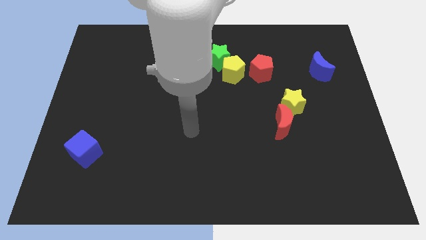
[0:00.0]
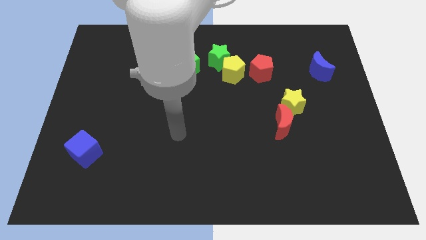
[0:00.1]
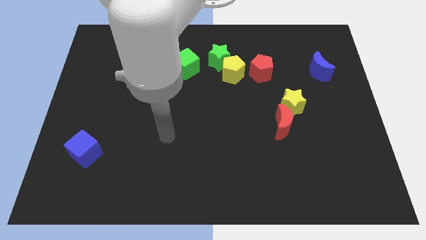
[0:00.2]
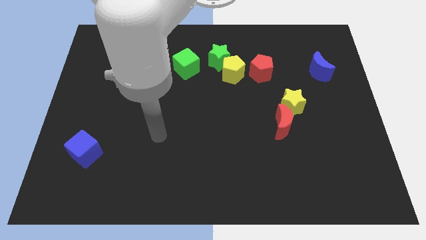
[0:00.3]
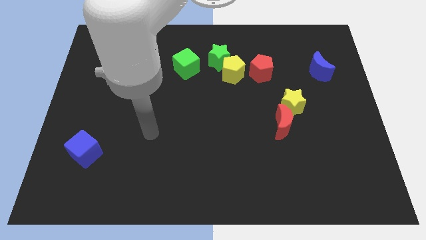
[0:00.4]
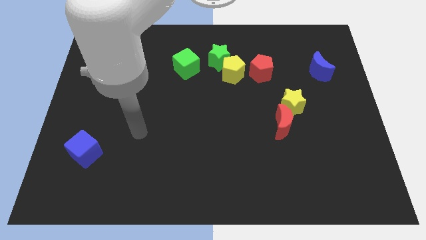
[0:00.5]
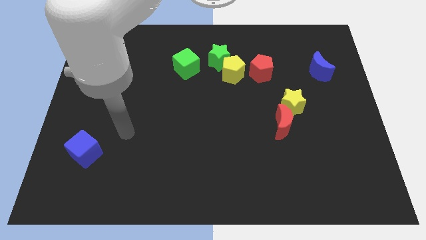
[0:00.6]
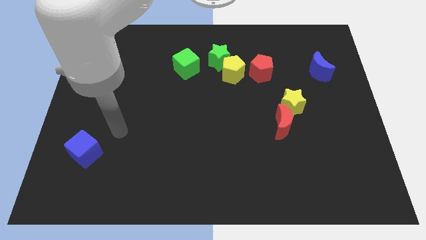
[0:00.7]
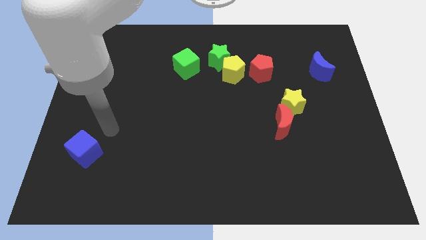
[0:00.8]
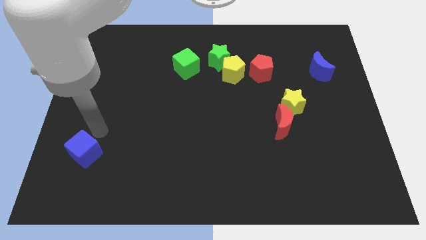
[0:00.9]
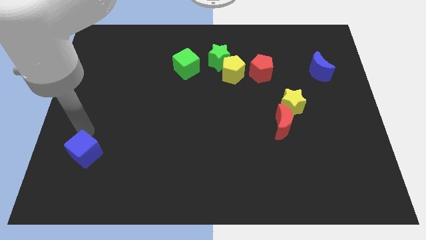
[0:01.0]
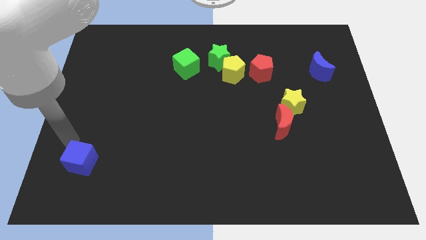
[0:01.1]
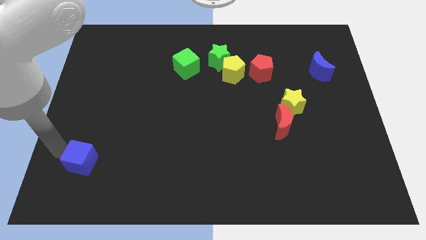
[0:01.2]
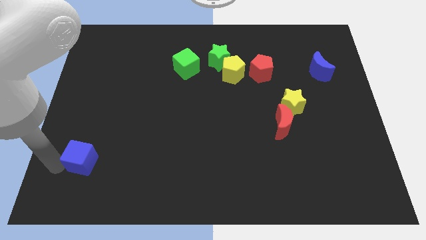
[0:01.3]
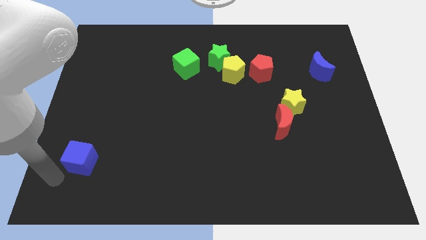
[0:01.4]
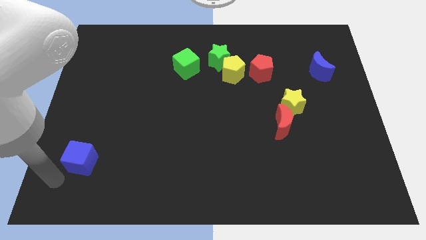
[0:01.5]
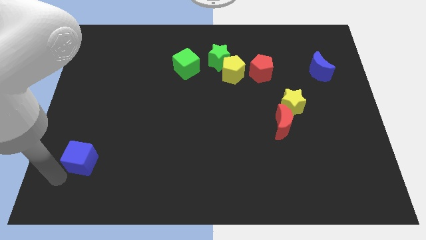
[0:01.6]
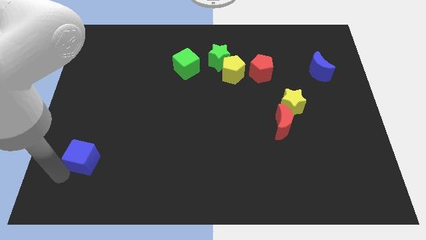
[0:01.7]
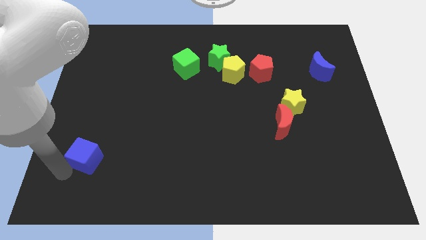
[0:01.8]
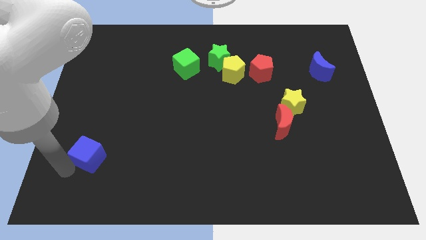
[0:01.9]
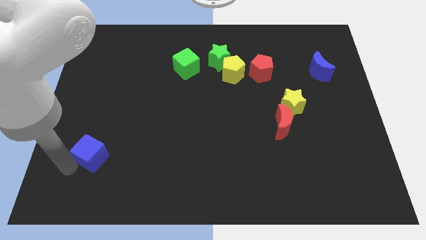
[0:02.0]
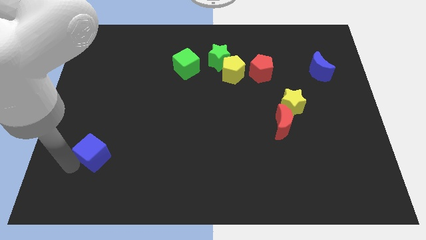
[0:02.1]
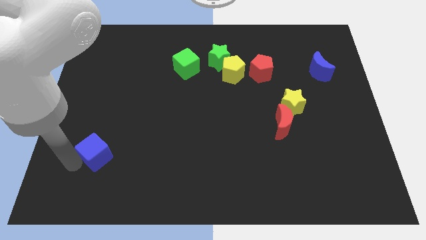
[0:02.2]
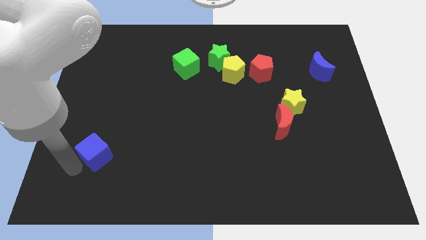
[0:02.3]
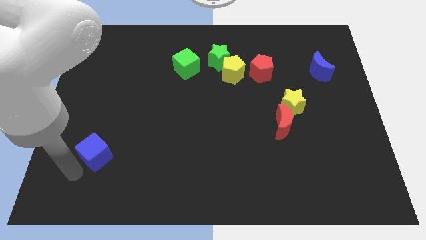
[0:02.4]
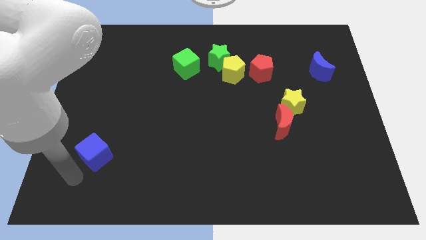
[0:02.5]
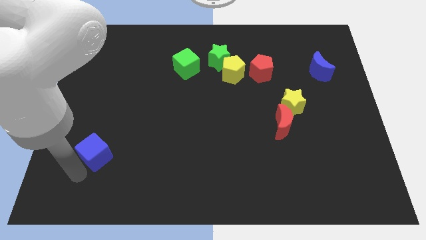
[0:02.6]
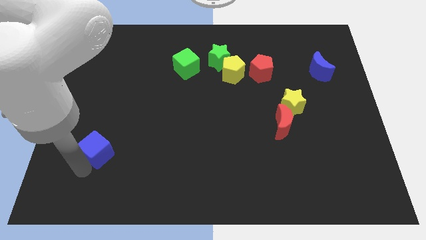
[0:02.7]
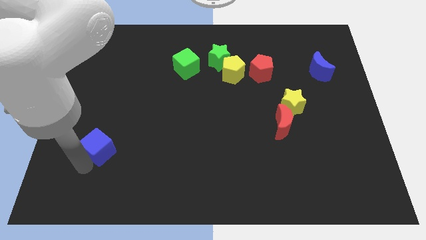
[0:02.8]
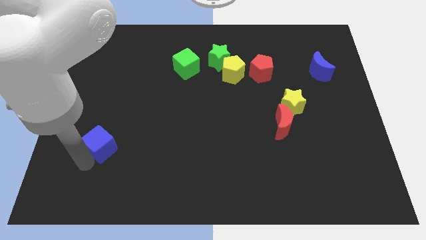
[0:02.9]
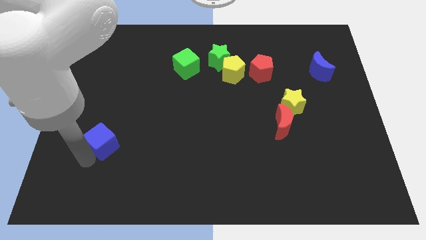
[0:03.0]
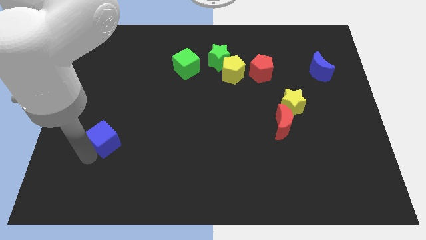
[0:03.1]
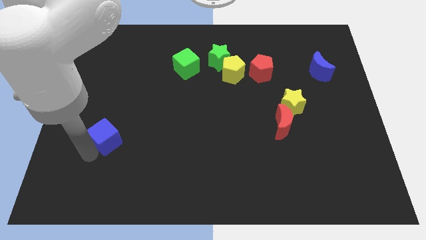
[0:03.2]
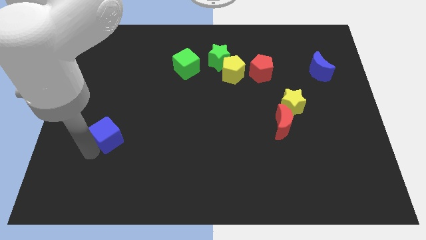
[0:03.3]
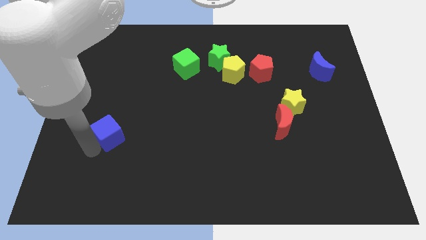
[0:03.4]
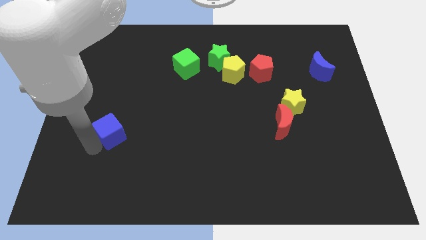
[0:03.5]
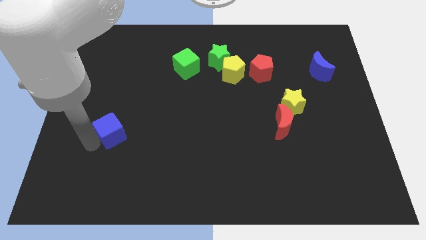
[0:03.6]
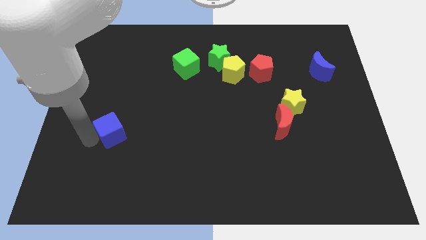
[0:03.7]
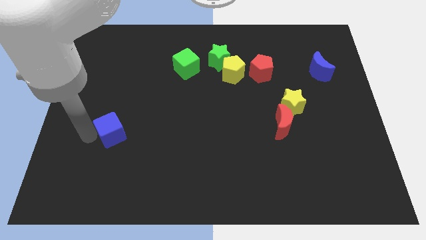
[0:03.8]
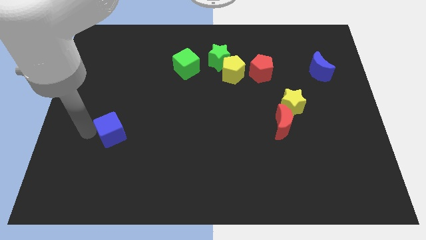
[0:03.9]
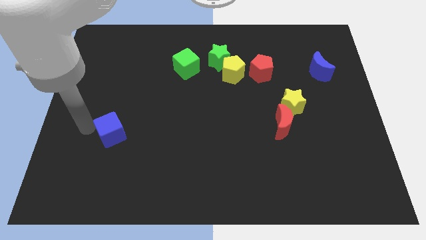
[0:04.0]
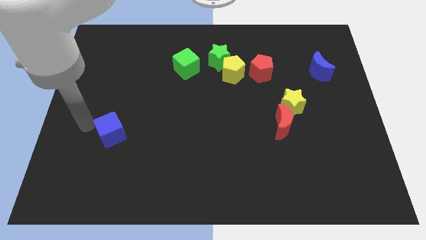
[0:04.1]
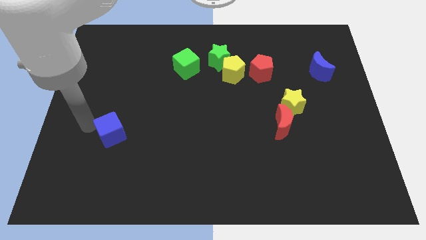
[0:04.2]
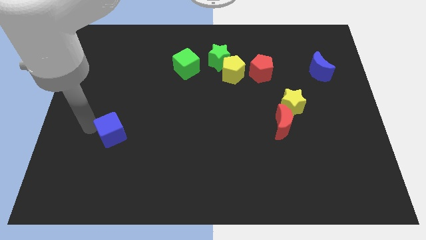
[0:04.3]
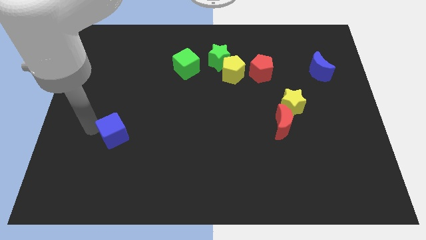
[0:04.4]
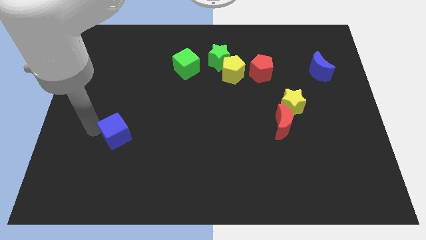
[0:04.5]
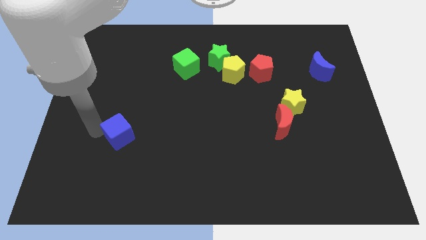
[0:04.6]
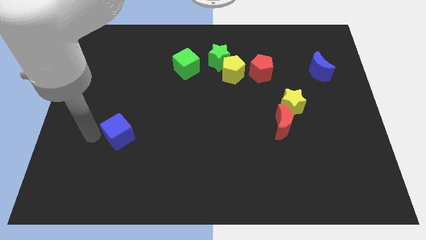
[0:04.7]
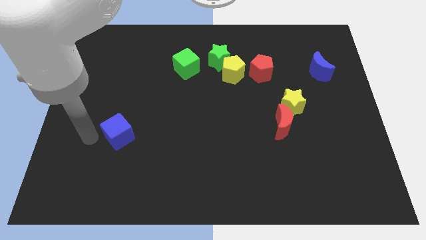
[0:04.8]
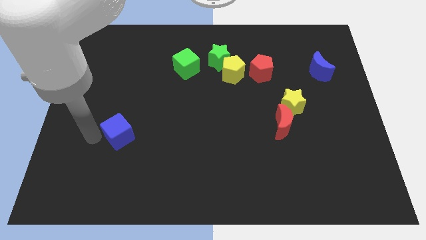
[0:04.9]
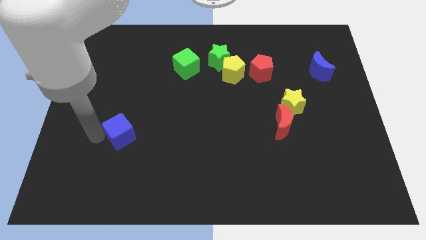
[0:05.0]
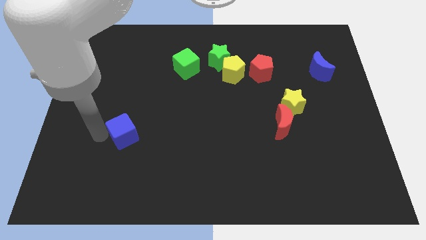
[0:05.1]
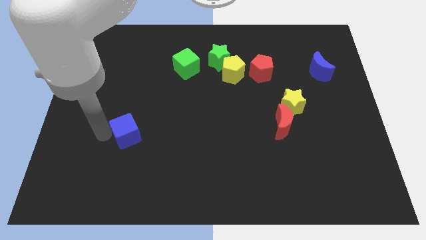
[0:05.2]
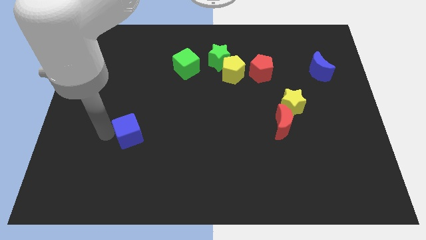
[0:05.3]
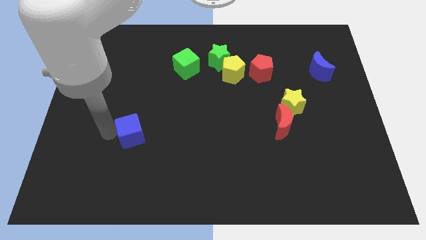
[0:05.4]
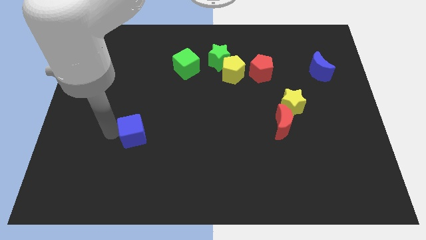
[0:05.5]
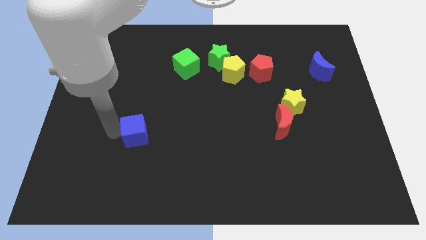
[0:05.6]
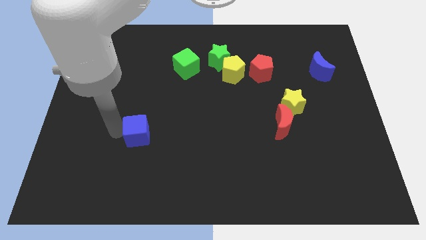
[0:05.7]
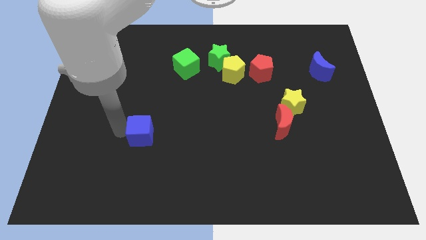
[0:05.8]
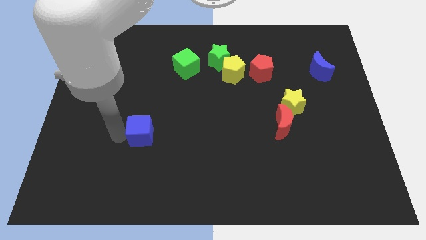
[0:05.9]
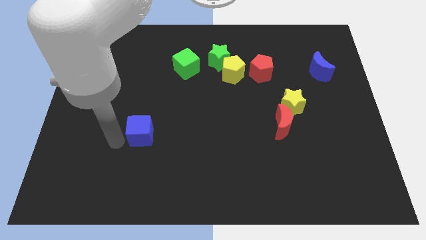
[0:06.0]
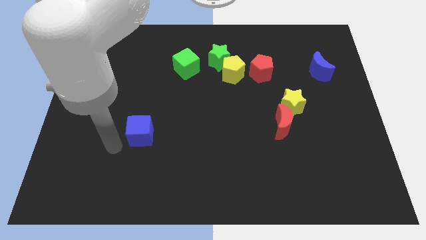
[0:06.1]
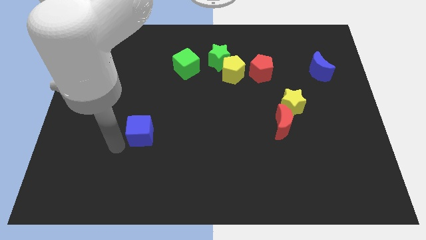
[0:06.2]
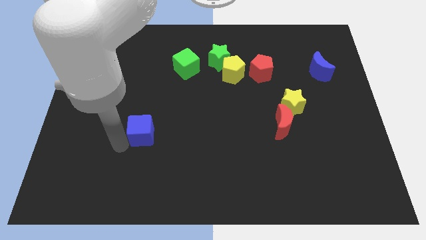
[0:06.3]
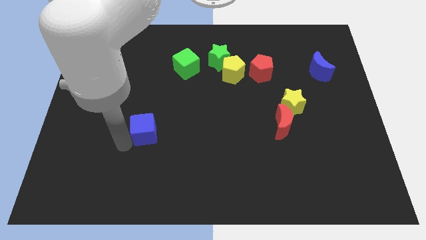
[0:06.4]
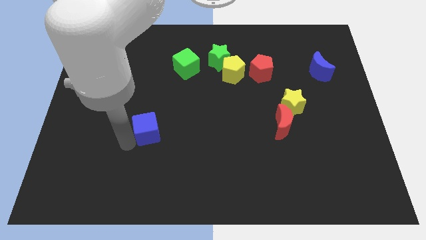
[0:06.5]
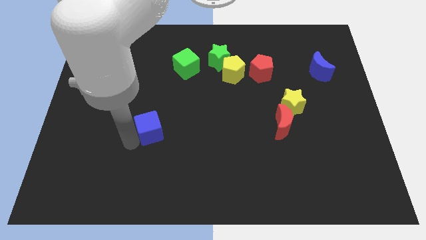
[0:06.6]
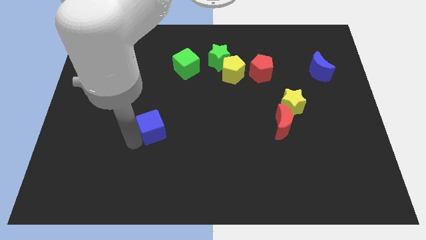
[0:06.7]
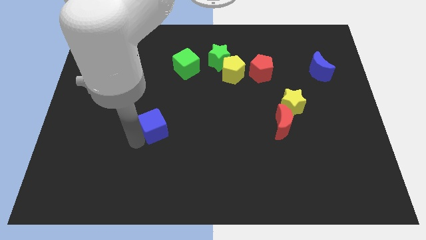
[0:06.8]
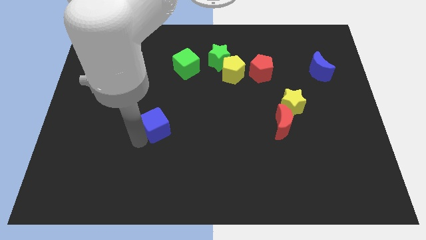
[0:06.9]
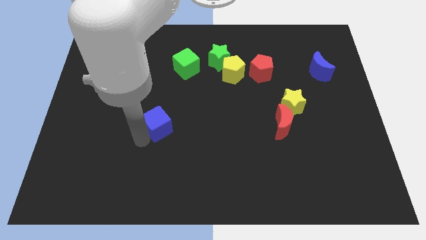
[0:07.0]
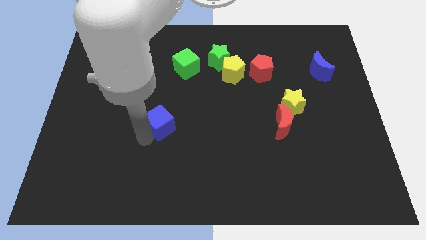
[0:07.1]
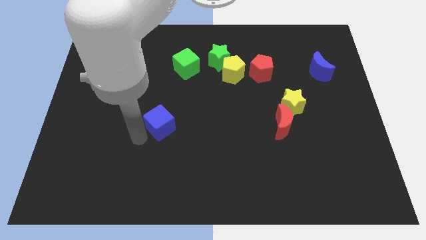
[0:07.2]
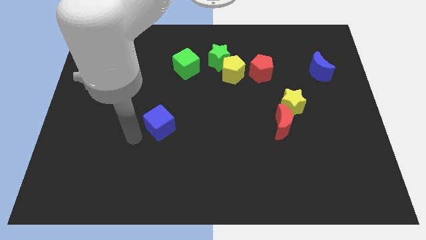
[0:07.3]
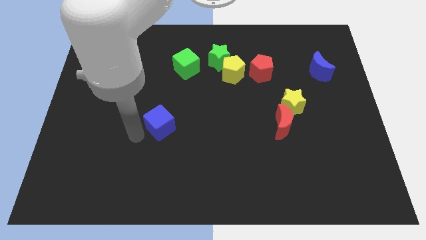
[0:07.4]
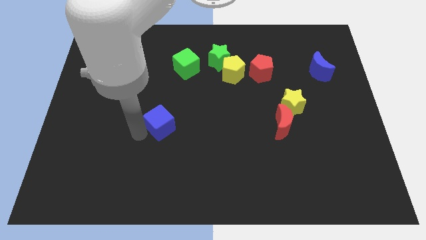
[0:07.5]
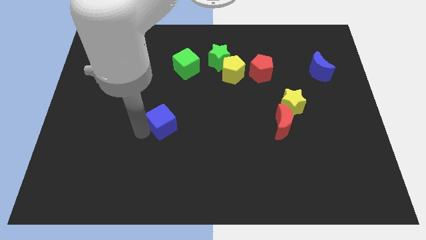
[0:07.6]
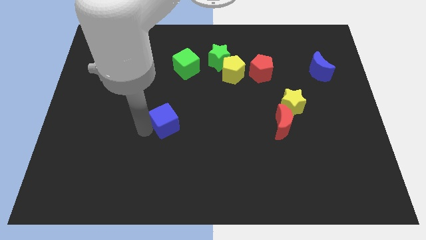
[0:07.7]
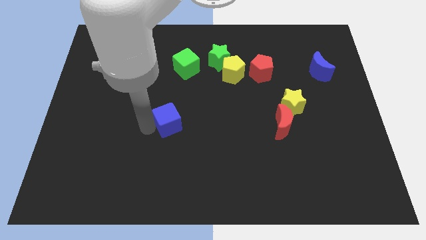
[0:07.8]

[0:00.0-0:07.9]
slide the blue cube to the center of the board

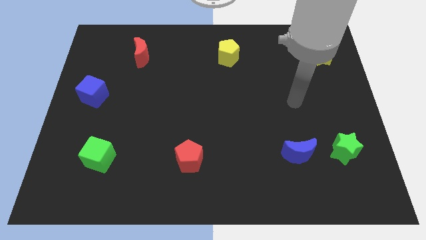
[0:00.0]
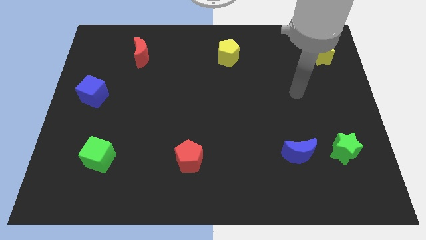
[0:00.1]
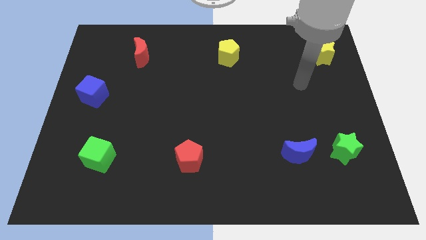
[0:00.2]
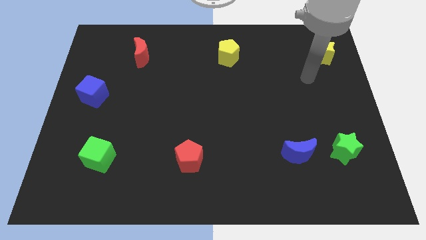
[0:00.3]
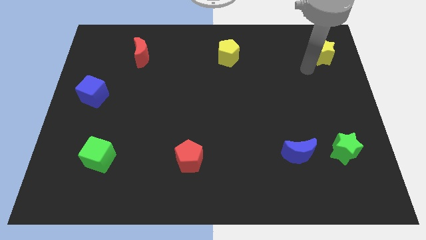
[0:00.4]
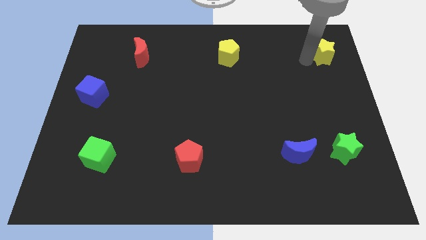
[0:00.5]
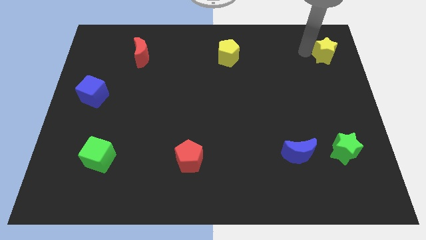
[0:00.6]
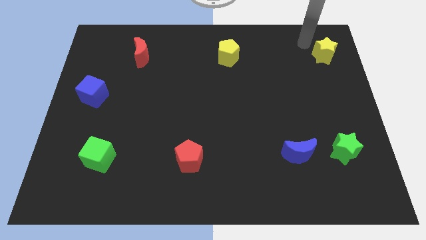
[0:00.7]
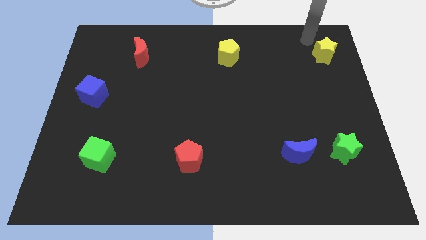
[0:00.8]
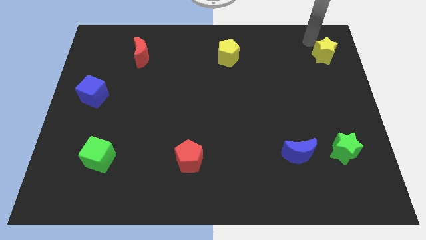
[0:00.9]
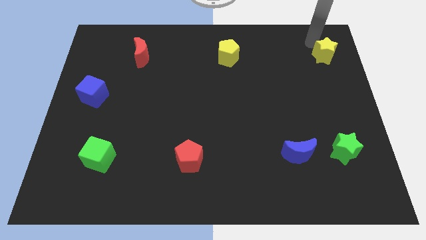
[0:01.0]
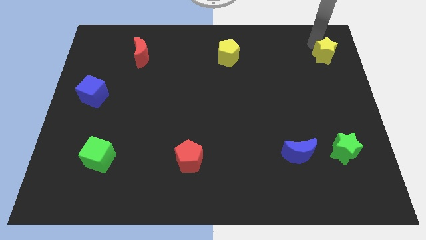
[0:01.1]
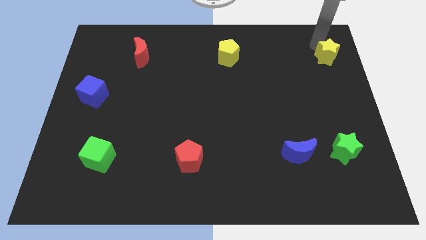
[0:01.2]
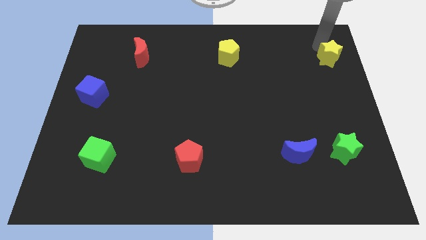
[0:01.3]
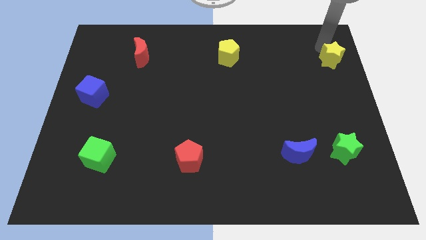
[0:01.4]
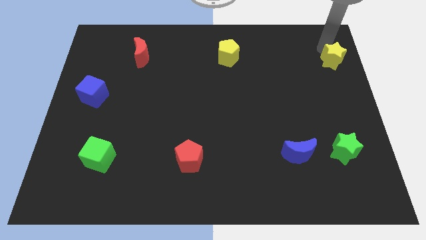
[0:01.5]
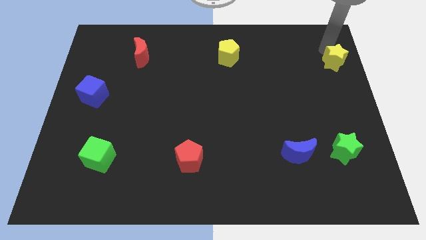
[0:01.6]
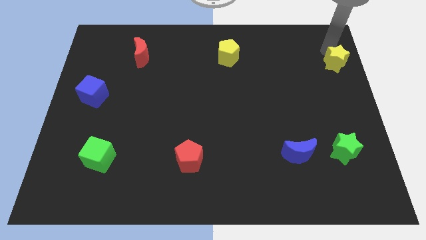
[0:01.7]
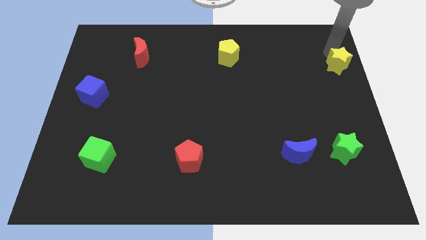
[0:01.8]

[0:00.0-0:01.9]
move the yellow star to the right side
